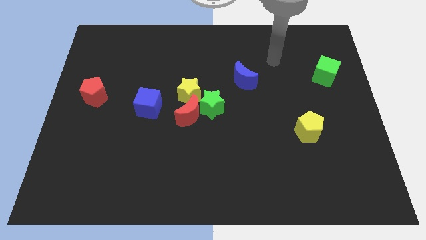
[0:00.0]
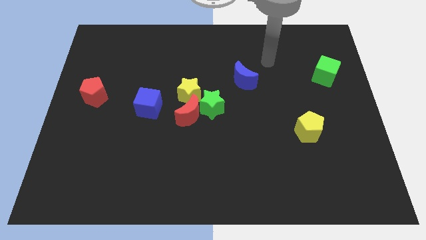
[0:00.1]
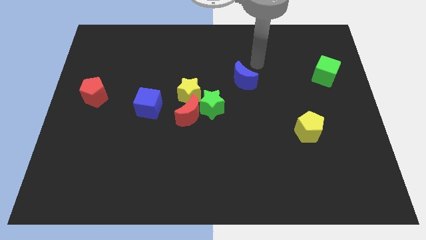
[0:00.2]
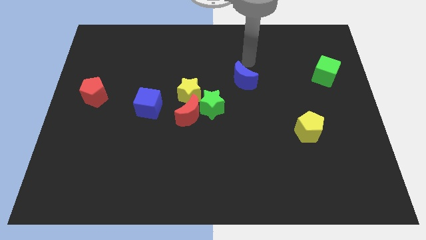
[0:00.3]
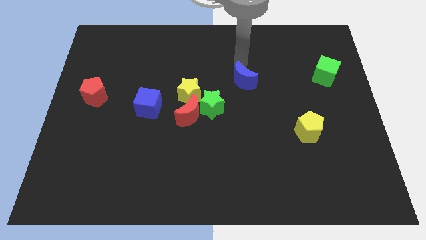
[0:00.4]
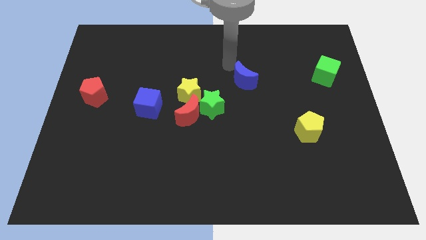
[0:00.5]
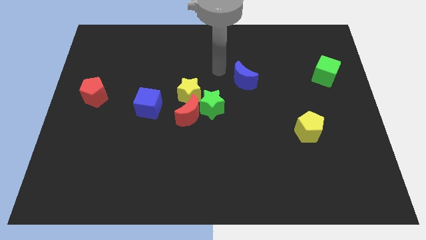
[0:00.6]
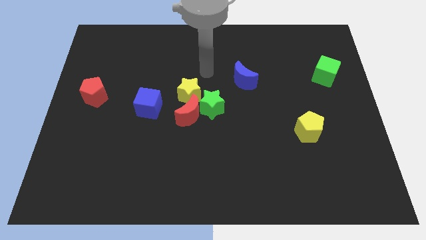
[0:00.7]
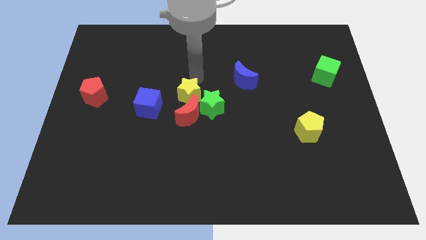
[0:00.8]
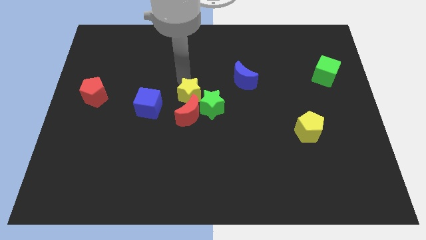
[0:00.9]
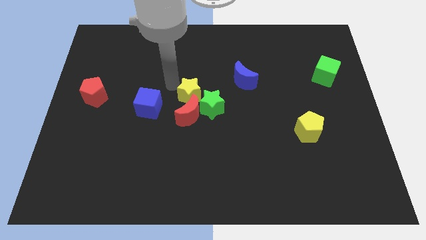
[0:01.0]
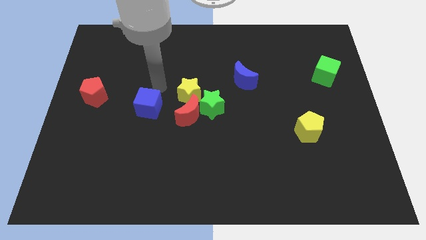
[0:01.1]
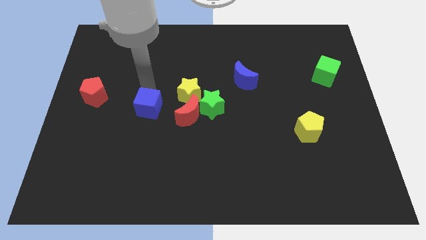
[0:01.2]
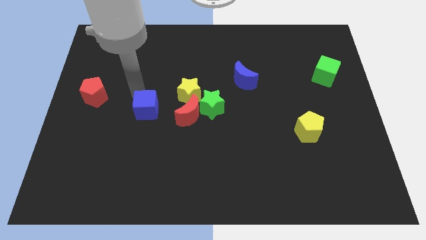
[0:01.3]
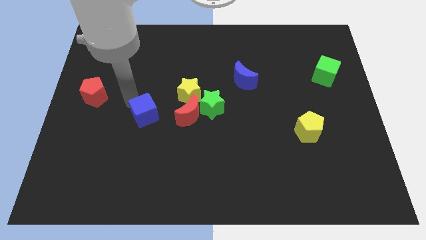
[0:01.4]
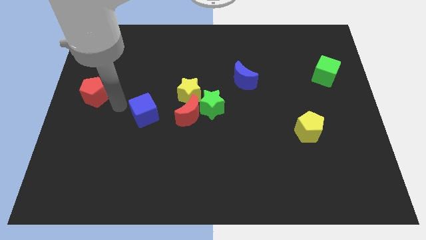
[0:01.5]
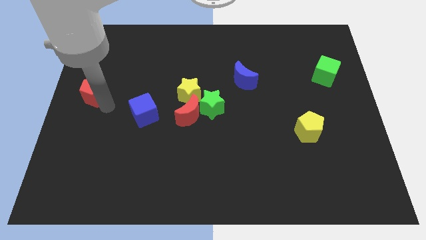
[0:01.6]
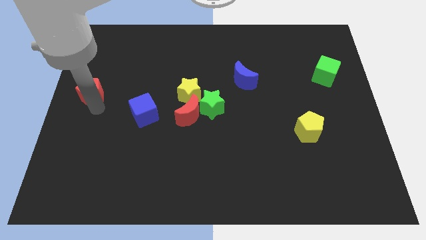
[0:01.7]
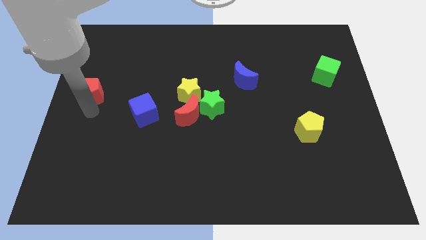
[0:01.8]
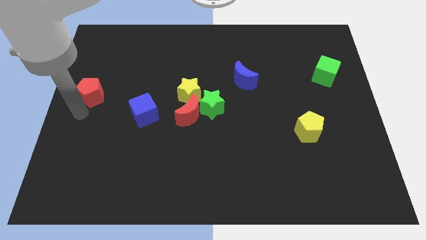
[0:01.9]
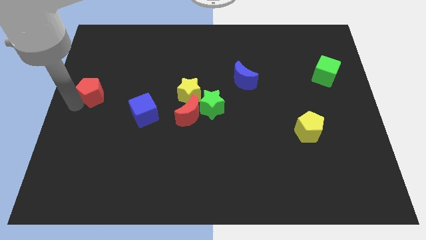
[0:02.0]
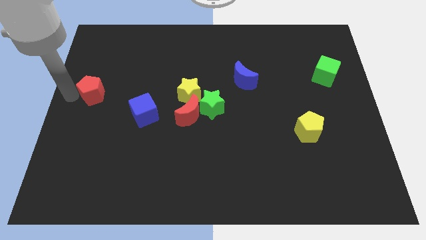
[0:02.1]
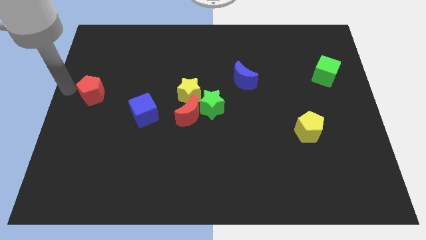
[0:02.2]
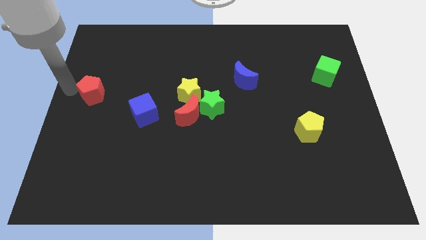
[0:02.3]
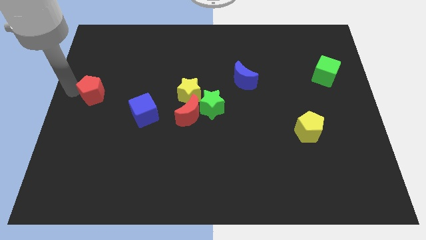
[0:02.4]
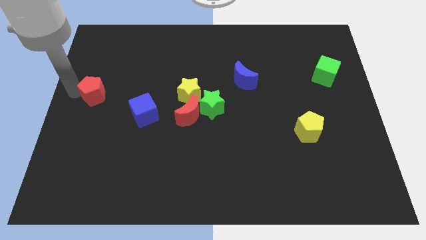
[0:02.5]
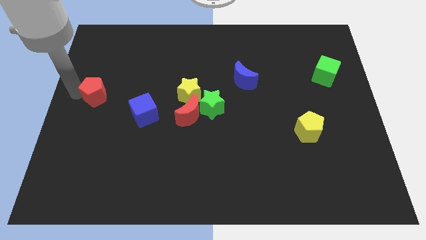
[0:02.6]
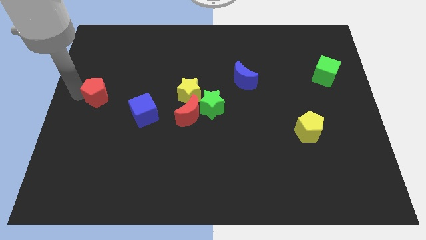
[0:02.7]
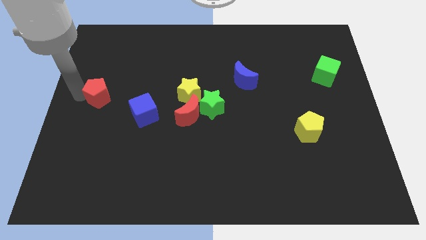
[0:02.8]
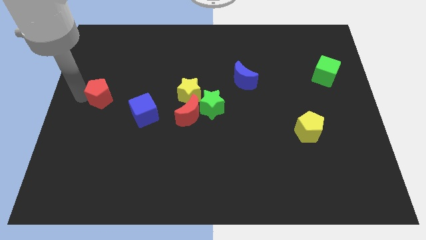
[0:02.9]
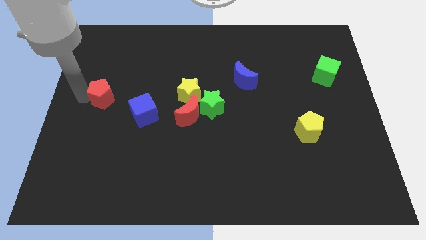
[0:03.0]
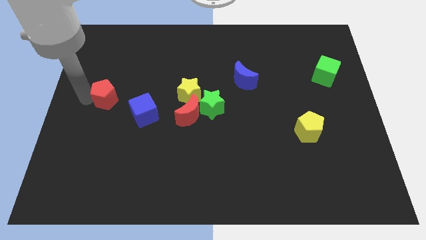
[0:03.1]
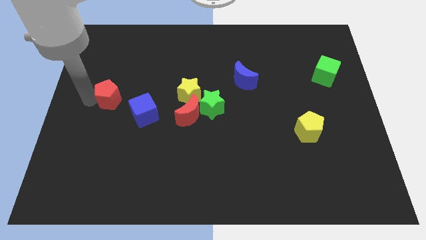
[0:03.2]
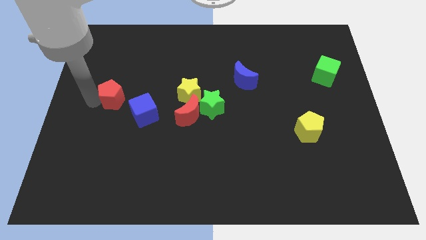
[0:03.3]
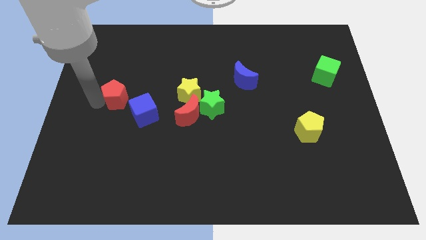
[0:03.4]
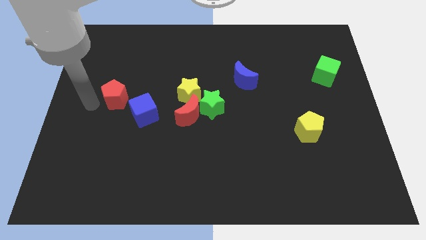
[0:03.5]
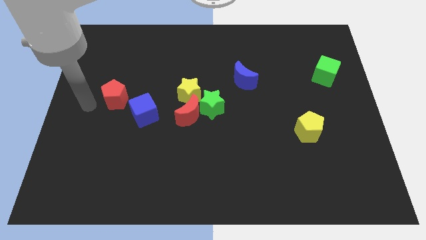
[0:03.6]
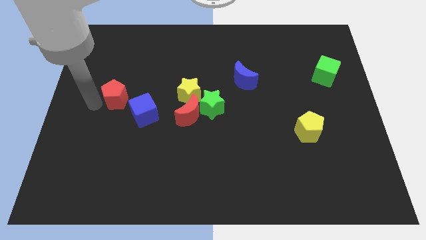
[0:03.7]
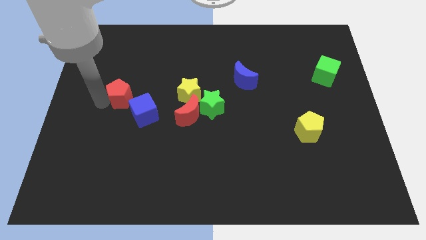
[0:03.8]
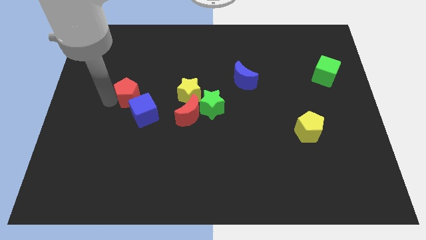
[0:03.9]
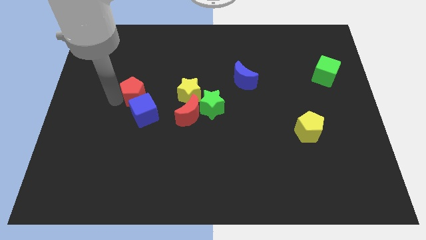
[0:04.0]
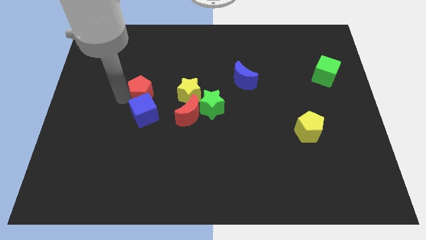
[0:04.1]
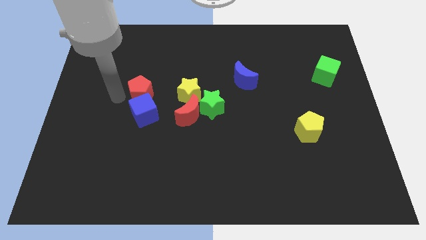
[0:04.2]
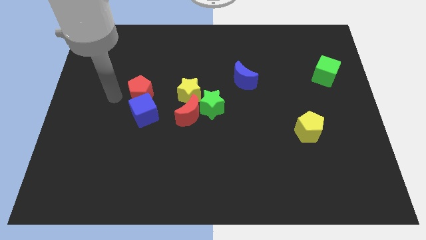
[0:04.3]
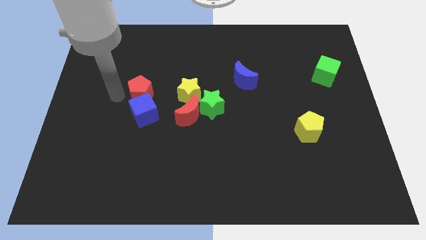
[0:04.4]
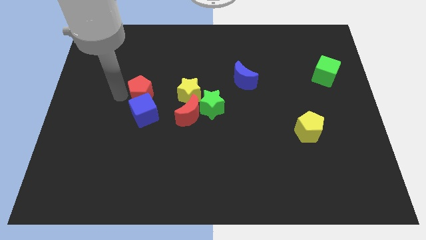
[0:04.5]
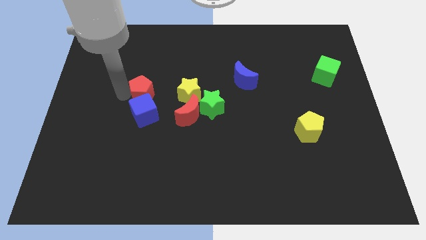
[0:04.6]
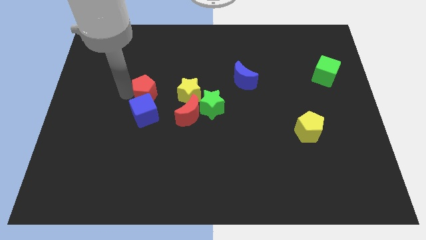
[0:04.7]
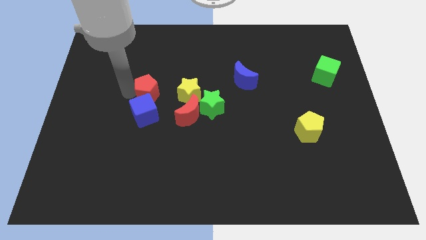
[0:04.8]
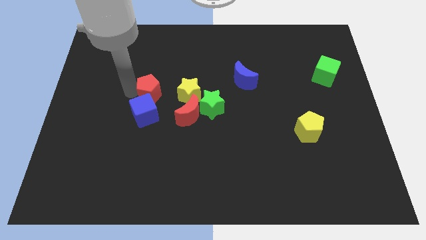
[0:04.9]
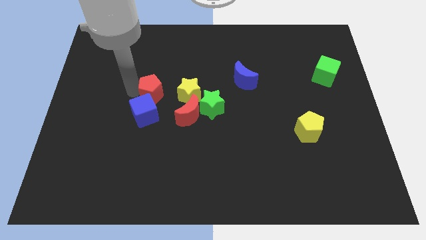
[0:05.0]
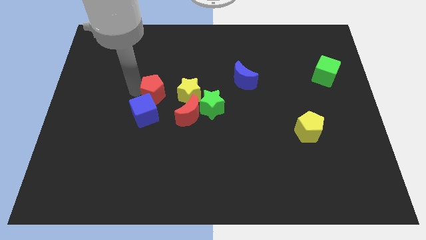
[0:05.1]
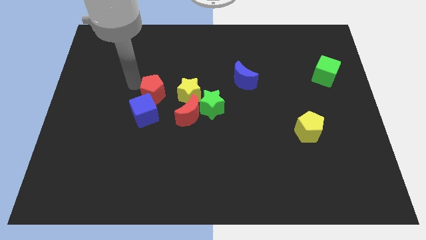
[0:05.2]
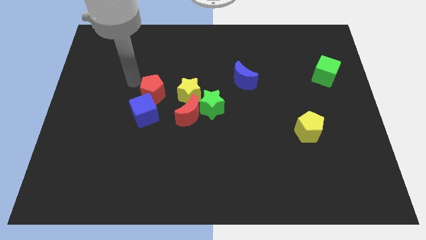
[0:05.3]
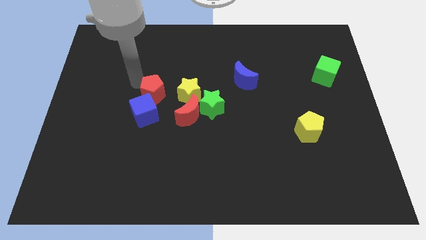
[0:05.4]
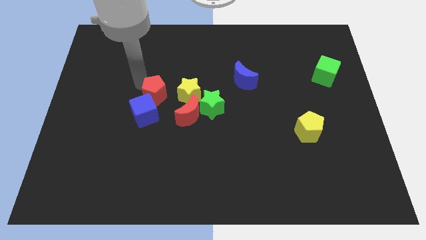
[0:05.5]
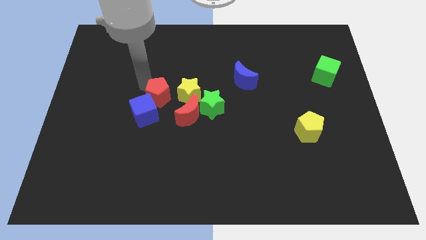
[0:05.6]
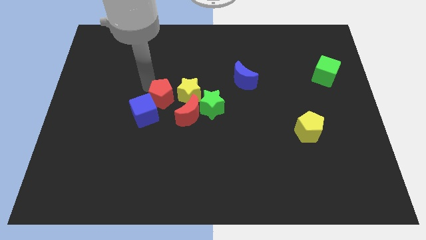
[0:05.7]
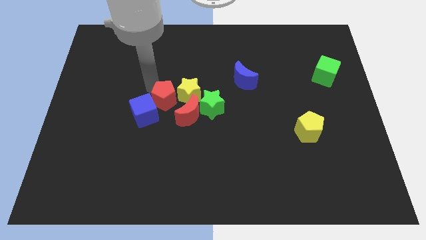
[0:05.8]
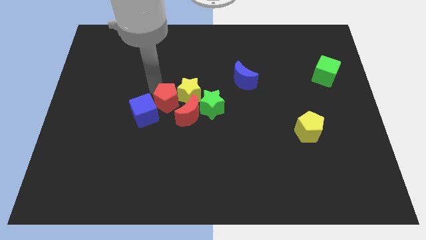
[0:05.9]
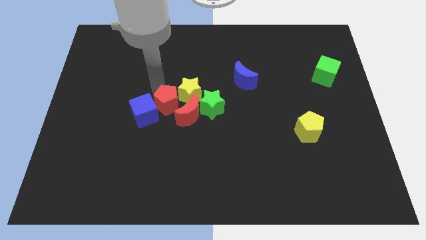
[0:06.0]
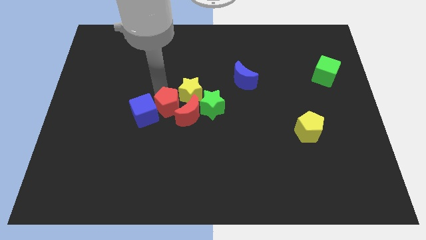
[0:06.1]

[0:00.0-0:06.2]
move the red pentagon to the red moon

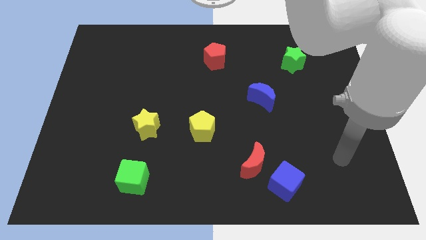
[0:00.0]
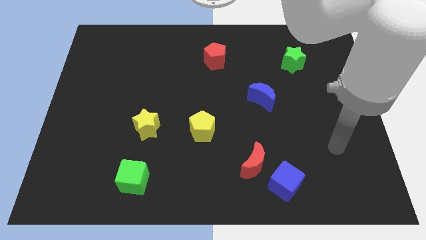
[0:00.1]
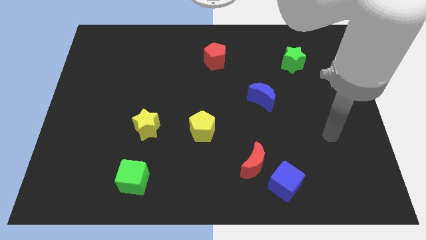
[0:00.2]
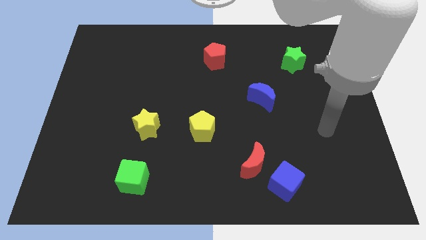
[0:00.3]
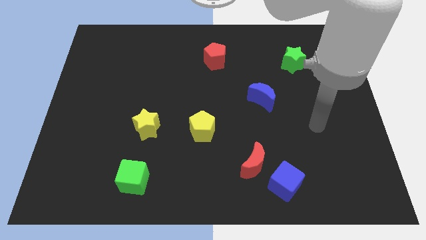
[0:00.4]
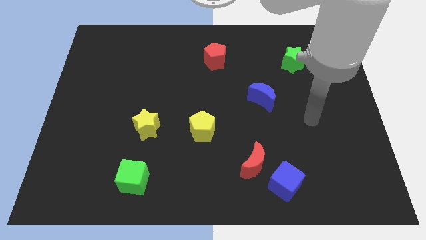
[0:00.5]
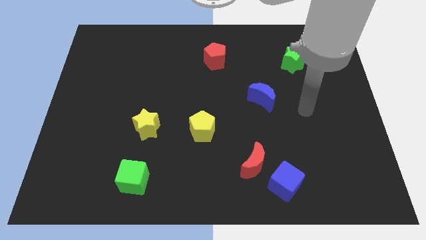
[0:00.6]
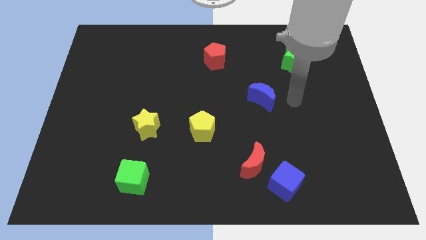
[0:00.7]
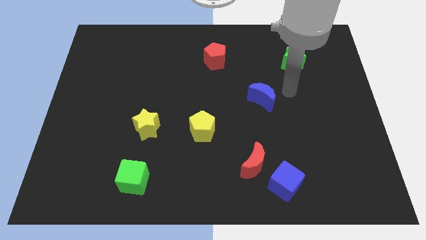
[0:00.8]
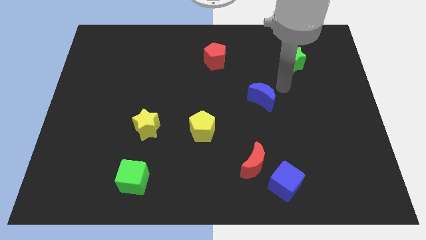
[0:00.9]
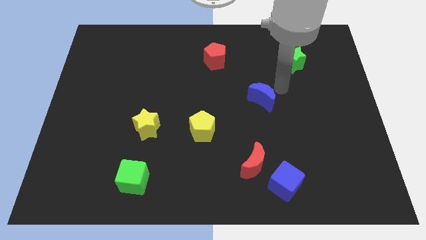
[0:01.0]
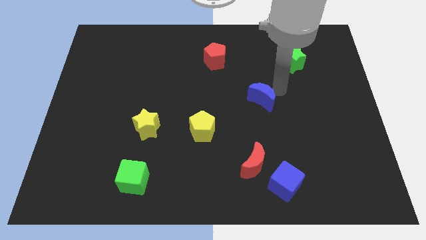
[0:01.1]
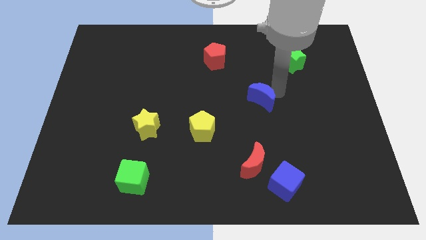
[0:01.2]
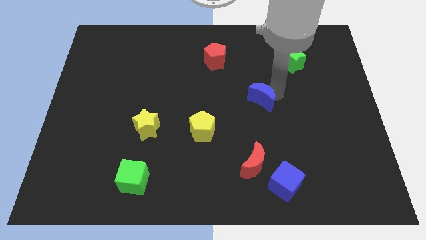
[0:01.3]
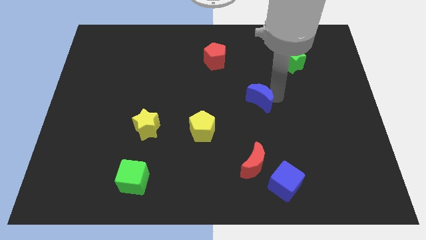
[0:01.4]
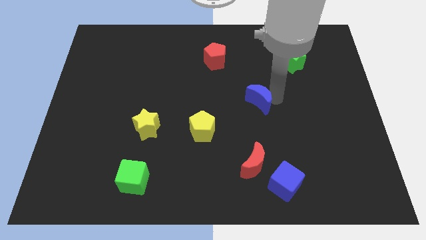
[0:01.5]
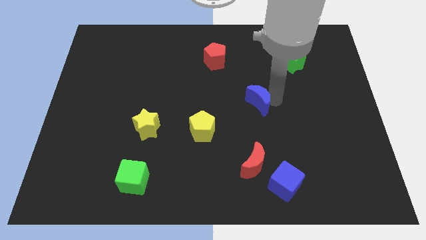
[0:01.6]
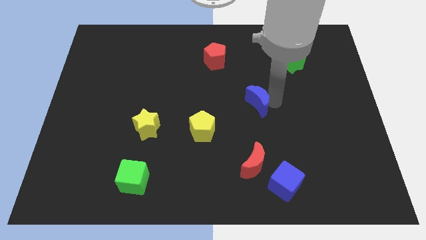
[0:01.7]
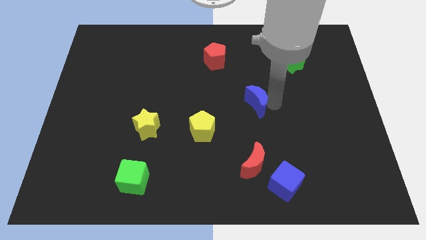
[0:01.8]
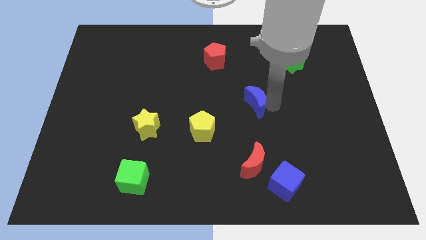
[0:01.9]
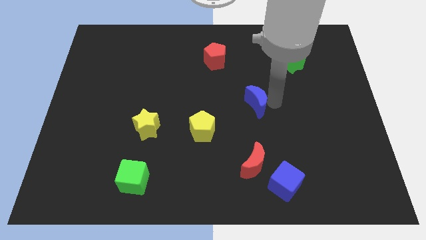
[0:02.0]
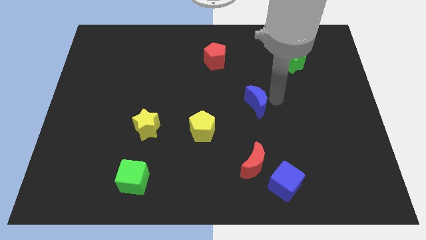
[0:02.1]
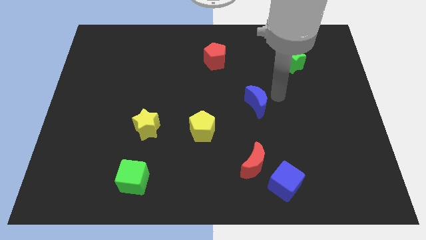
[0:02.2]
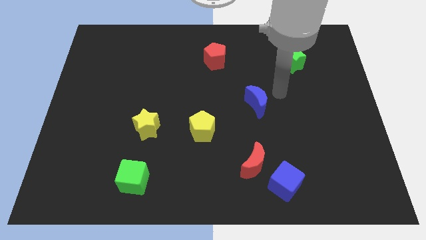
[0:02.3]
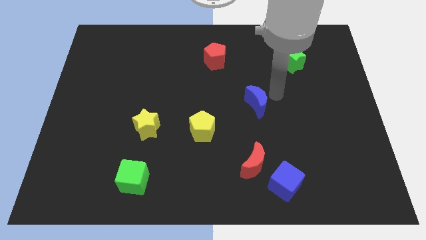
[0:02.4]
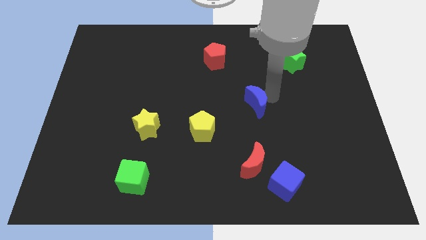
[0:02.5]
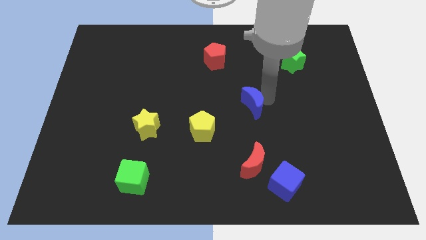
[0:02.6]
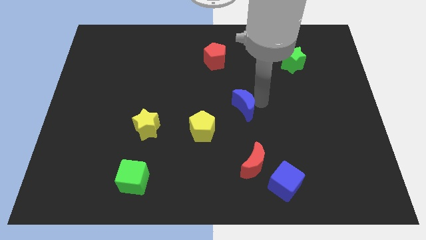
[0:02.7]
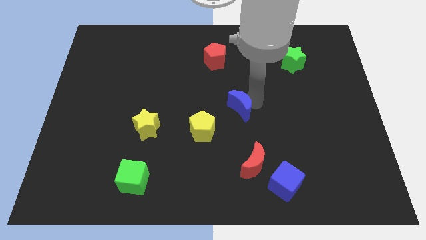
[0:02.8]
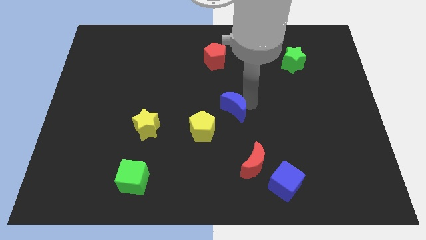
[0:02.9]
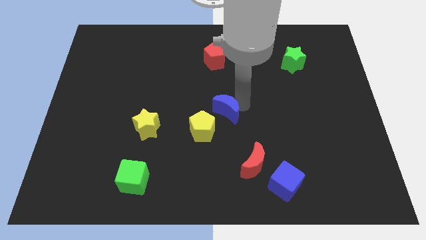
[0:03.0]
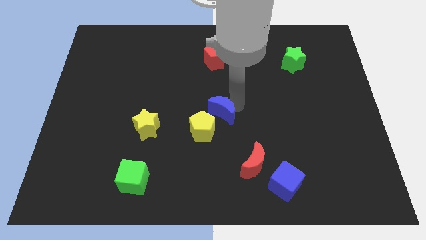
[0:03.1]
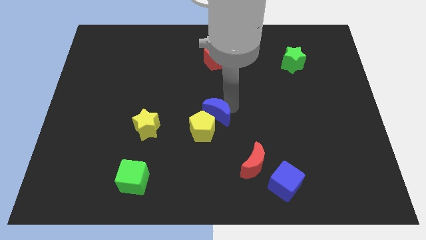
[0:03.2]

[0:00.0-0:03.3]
push the blue moon next to the yellow pentagon
